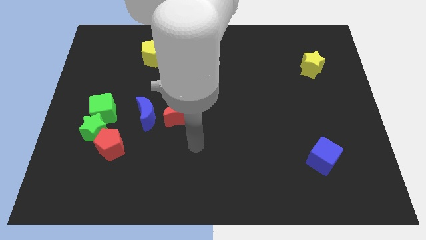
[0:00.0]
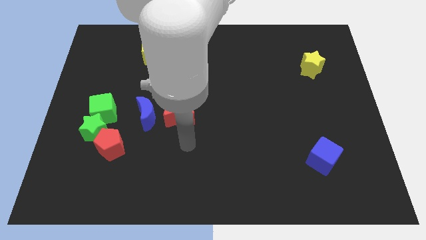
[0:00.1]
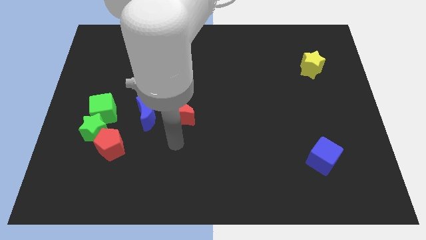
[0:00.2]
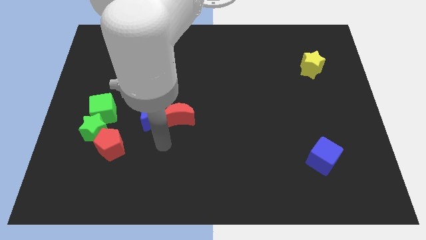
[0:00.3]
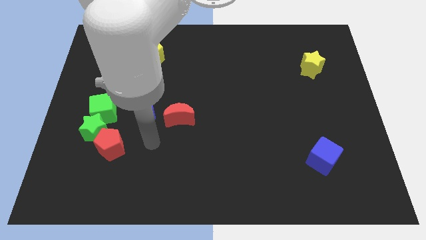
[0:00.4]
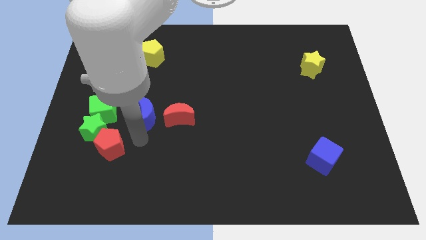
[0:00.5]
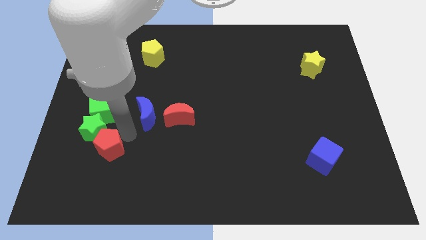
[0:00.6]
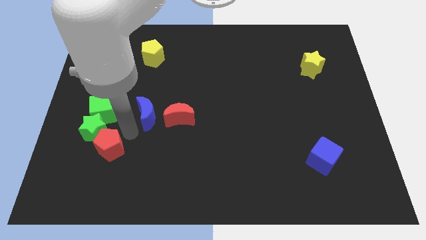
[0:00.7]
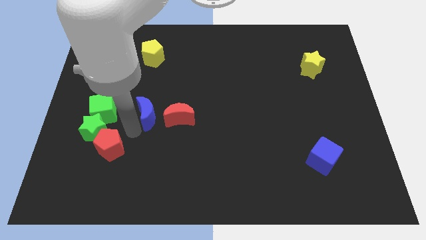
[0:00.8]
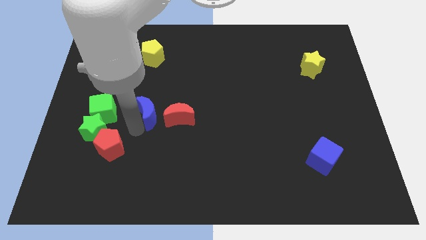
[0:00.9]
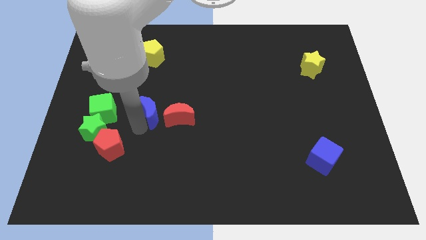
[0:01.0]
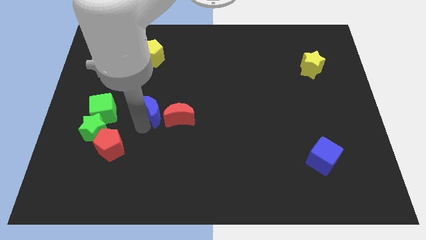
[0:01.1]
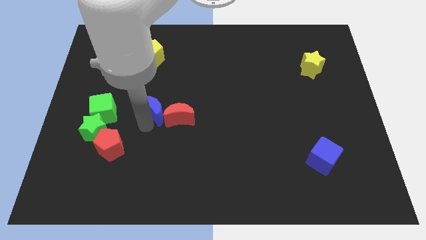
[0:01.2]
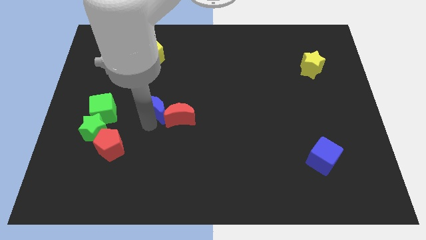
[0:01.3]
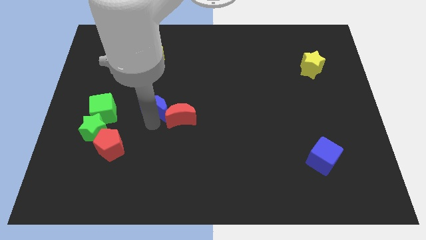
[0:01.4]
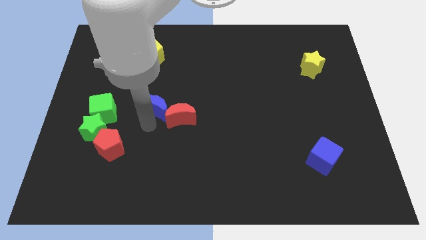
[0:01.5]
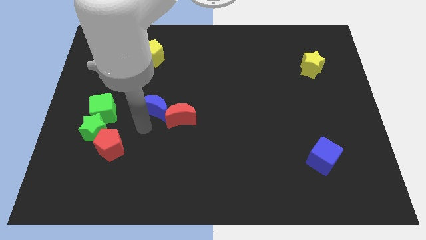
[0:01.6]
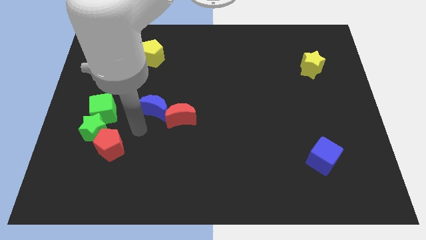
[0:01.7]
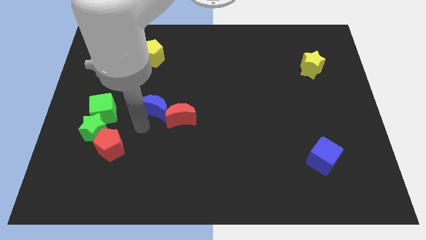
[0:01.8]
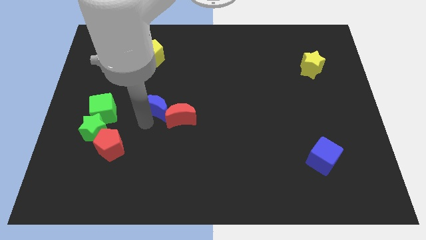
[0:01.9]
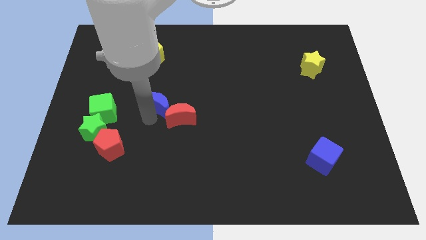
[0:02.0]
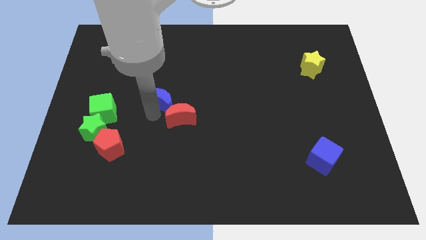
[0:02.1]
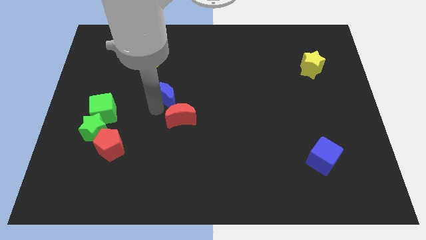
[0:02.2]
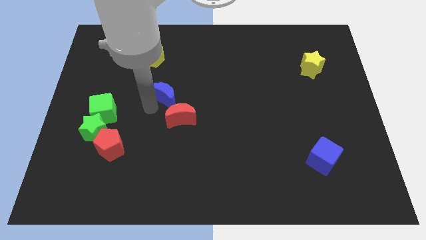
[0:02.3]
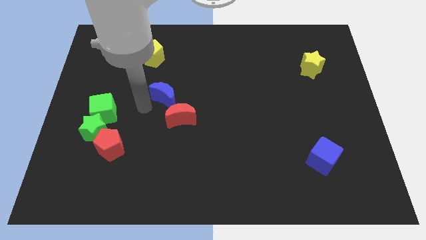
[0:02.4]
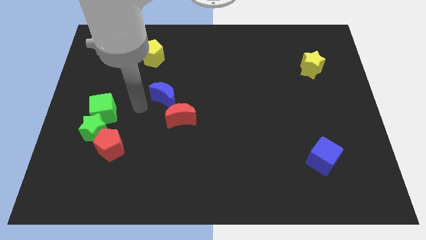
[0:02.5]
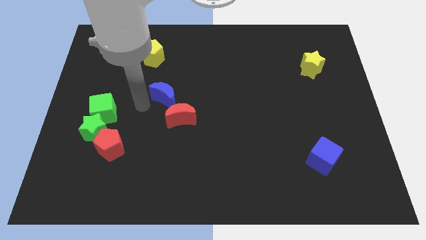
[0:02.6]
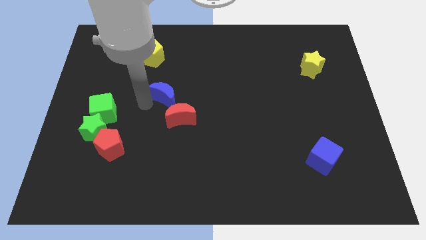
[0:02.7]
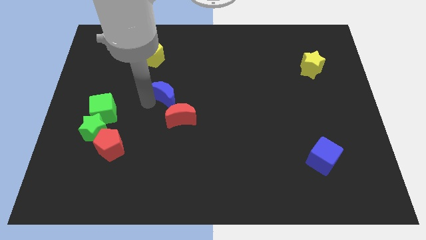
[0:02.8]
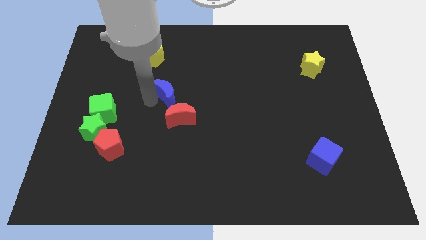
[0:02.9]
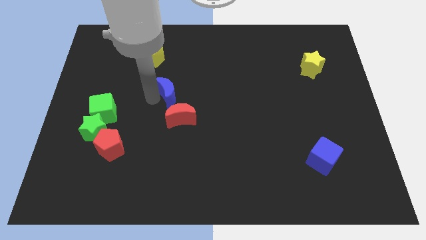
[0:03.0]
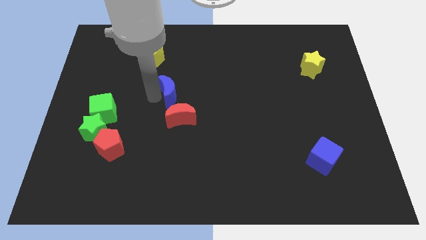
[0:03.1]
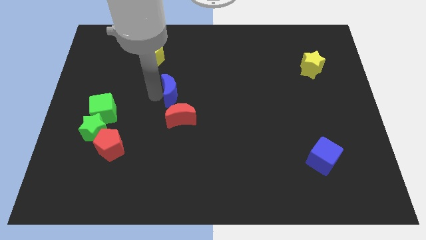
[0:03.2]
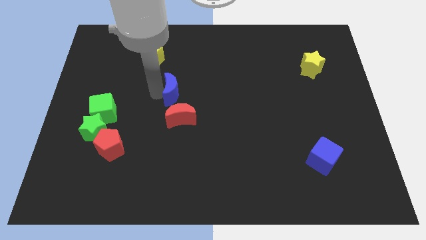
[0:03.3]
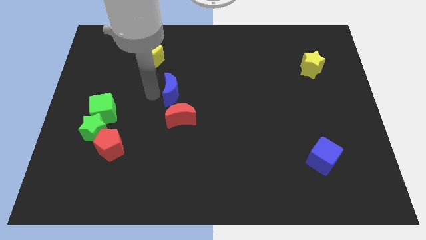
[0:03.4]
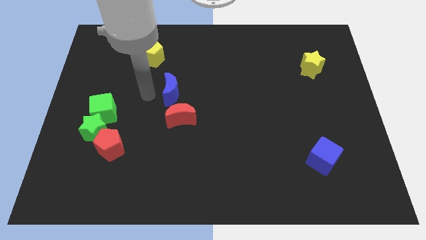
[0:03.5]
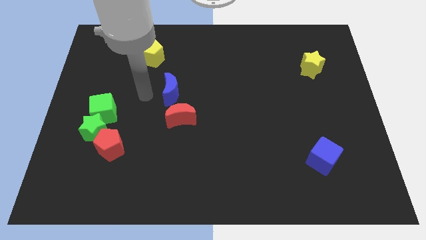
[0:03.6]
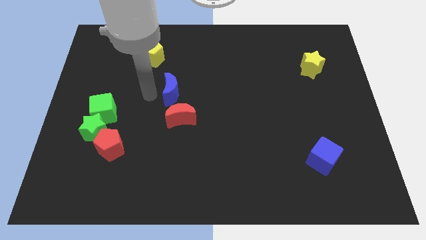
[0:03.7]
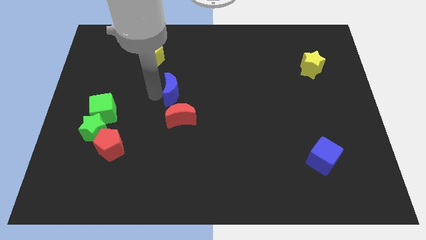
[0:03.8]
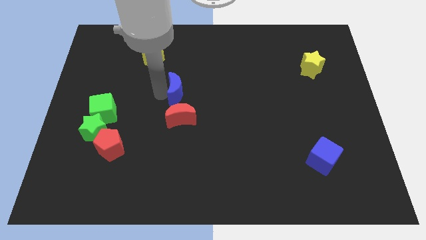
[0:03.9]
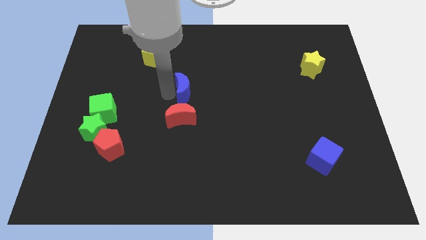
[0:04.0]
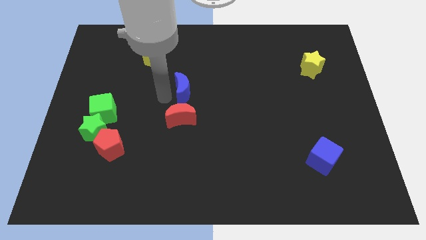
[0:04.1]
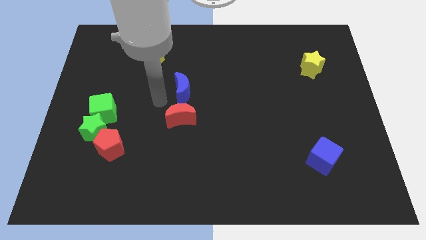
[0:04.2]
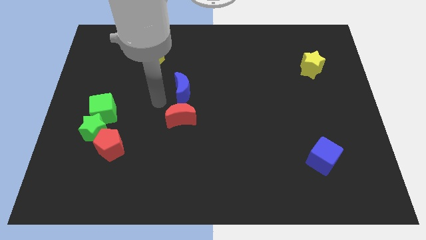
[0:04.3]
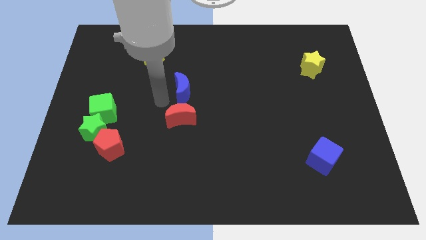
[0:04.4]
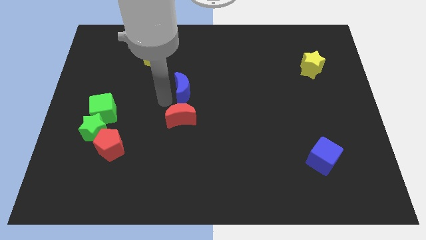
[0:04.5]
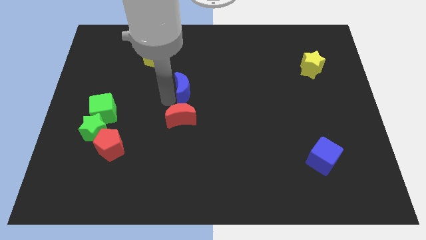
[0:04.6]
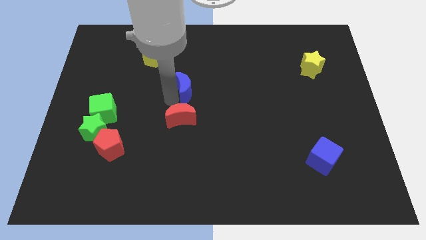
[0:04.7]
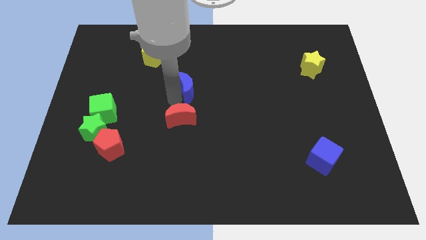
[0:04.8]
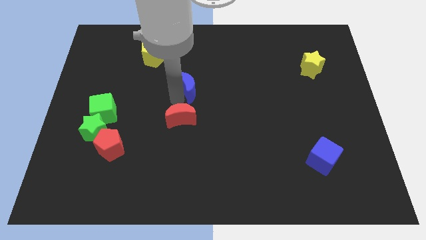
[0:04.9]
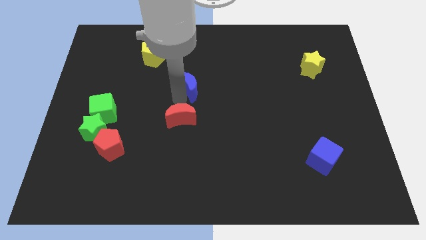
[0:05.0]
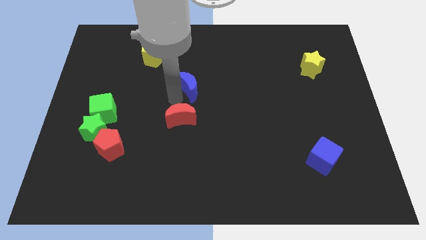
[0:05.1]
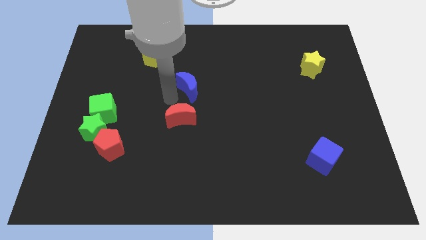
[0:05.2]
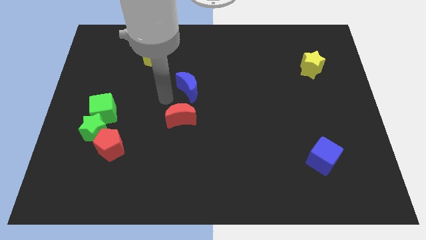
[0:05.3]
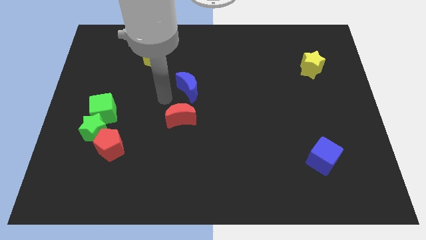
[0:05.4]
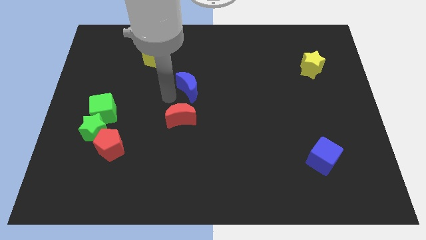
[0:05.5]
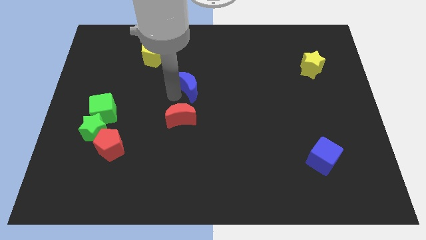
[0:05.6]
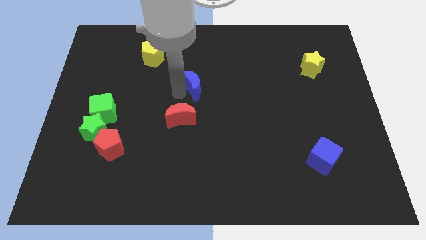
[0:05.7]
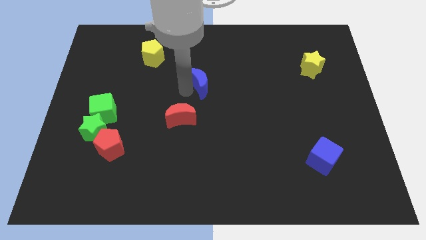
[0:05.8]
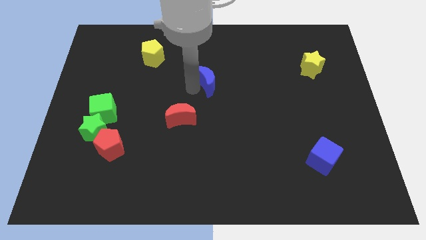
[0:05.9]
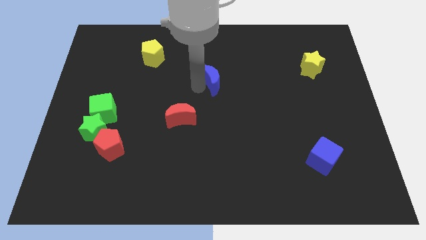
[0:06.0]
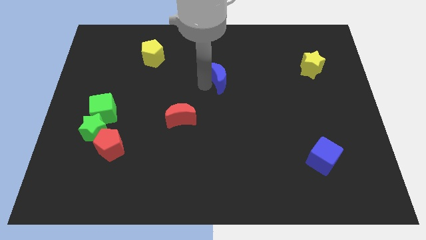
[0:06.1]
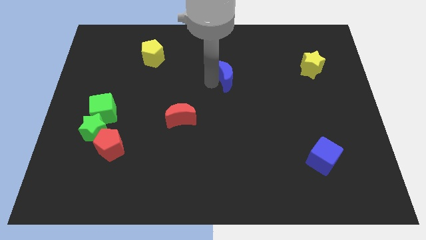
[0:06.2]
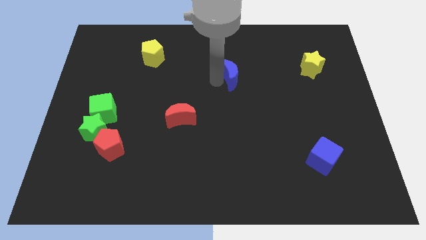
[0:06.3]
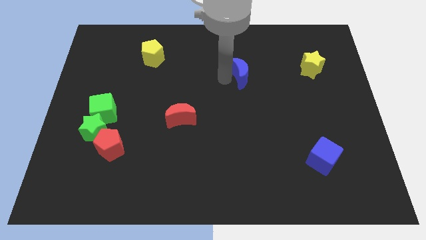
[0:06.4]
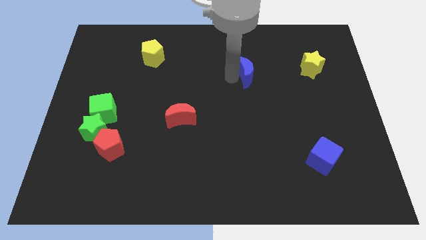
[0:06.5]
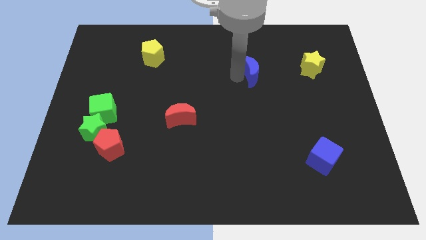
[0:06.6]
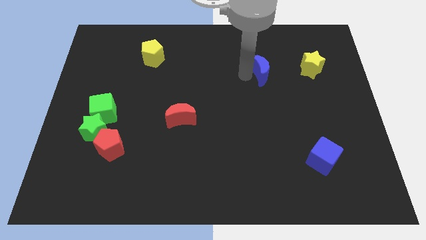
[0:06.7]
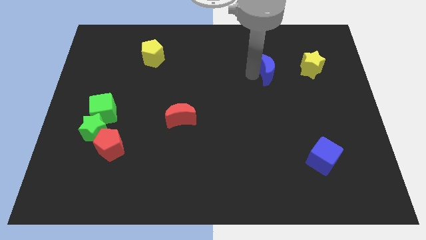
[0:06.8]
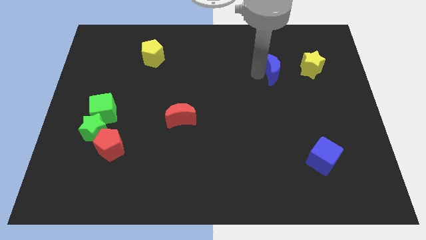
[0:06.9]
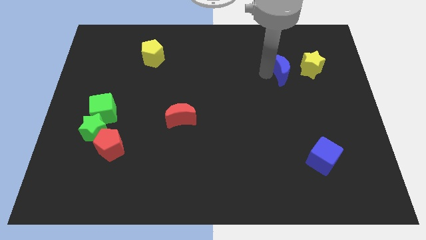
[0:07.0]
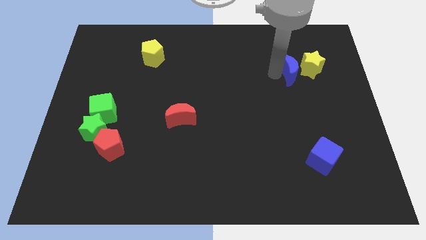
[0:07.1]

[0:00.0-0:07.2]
slide the blue moon close to the yellow star

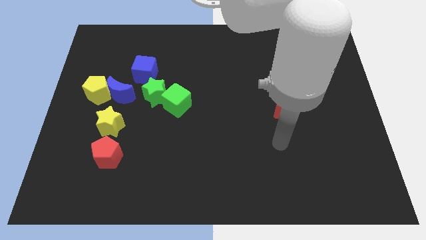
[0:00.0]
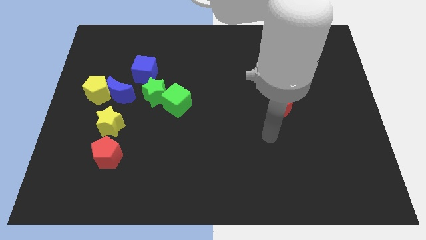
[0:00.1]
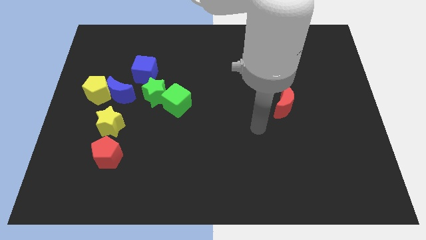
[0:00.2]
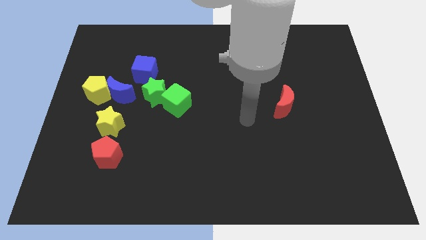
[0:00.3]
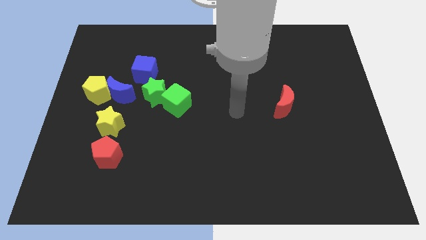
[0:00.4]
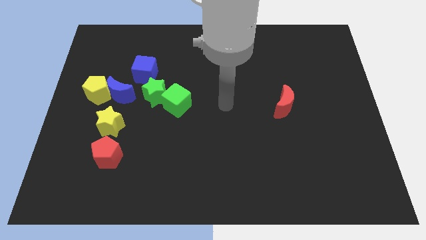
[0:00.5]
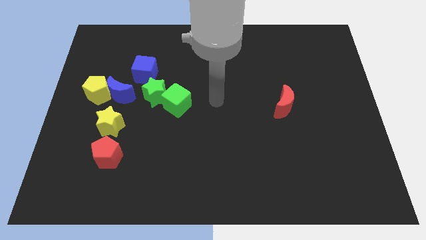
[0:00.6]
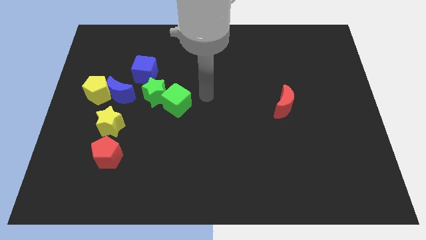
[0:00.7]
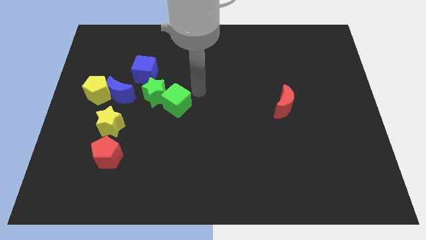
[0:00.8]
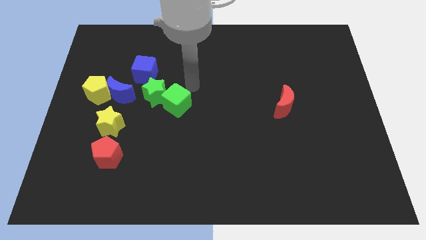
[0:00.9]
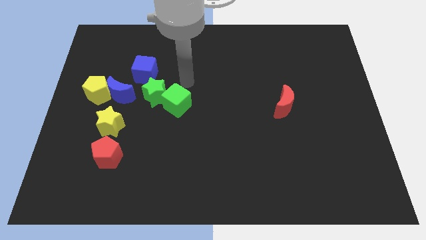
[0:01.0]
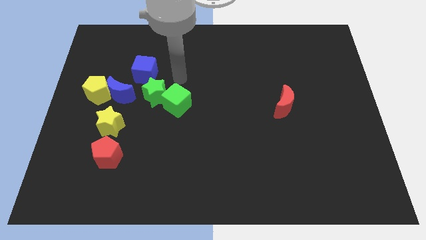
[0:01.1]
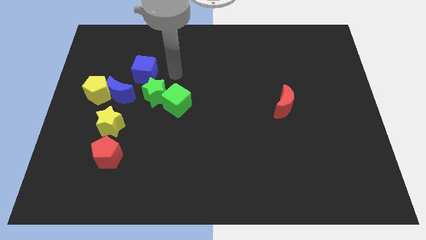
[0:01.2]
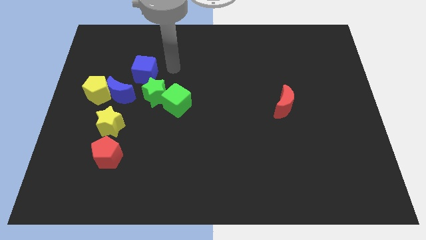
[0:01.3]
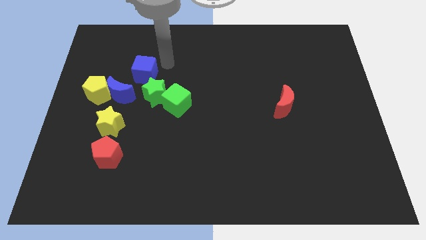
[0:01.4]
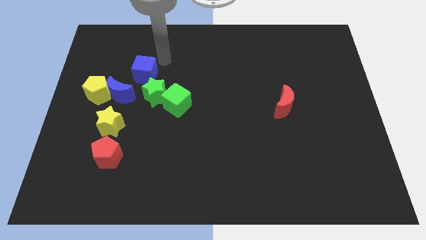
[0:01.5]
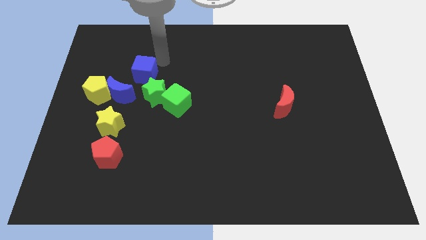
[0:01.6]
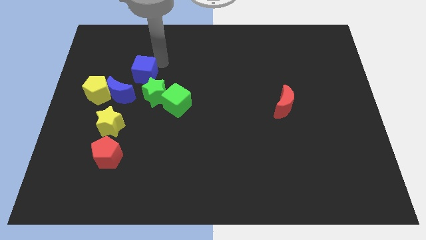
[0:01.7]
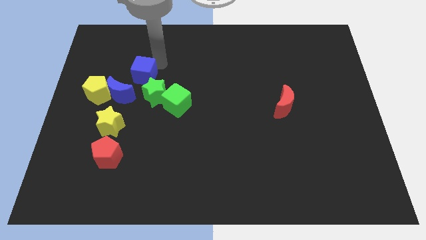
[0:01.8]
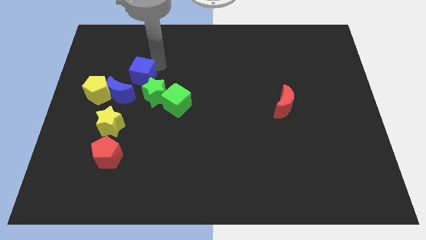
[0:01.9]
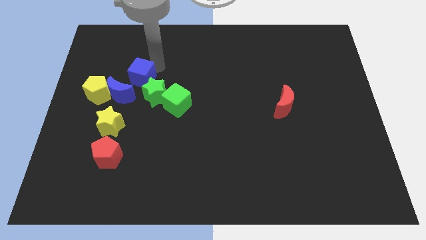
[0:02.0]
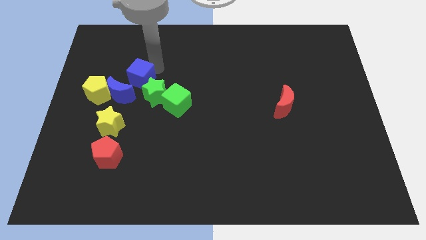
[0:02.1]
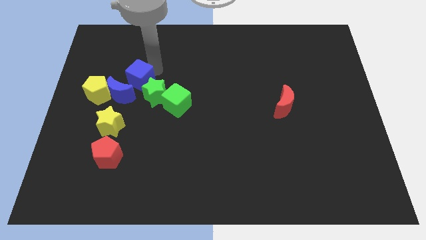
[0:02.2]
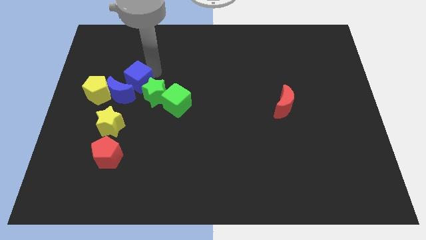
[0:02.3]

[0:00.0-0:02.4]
move the blue cube towards the blue moon
